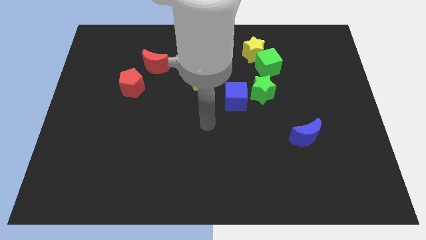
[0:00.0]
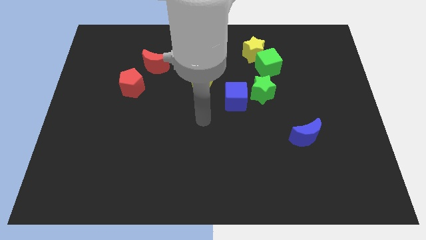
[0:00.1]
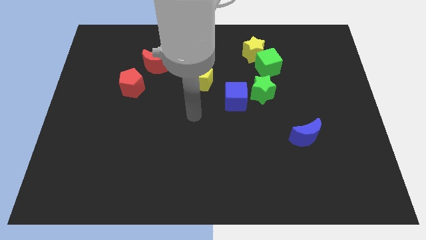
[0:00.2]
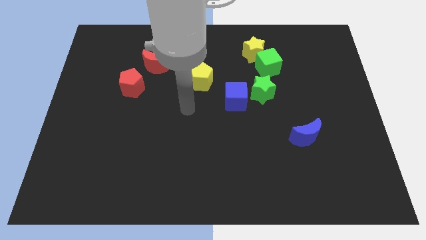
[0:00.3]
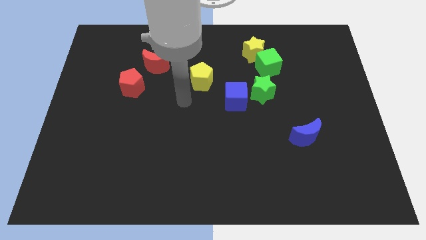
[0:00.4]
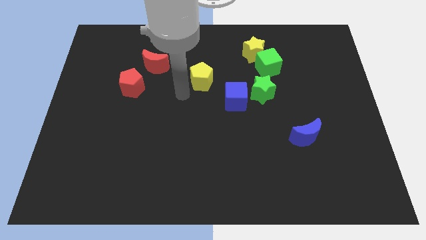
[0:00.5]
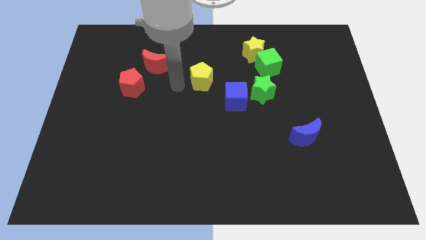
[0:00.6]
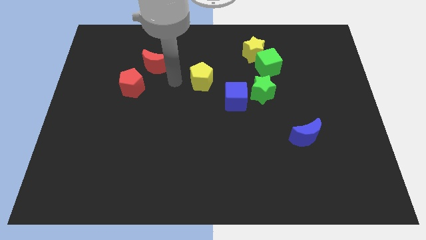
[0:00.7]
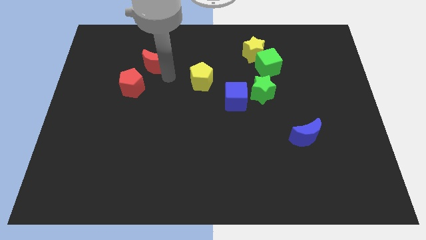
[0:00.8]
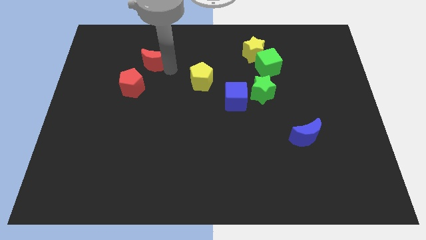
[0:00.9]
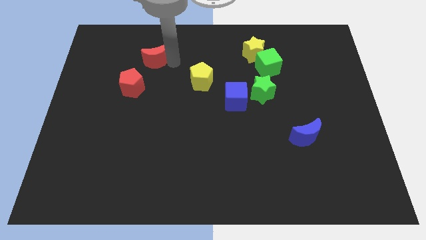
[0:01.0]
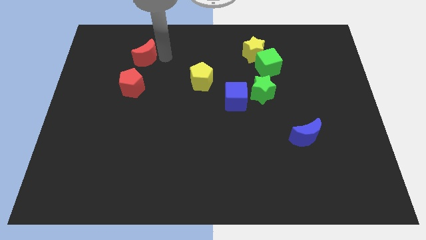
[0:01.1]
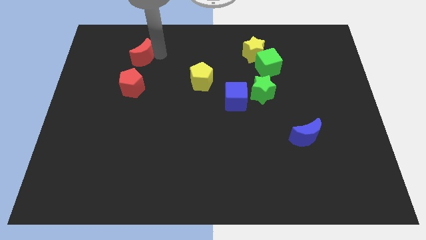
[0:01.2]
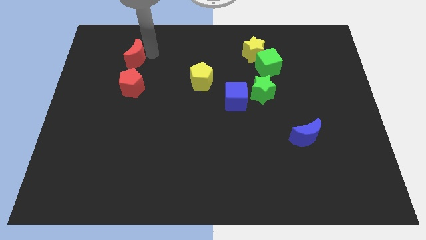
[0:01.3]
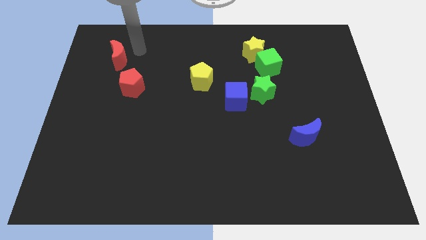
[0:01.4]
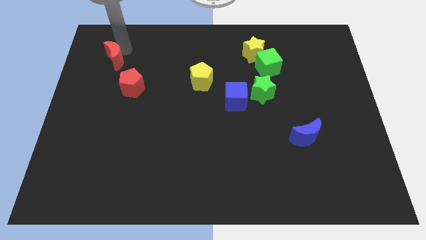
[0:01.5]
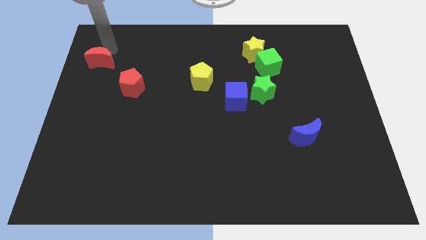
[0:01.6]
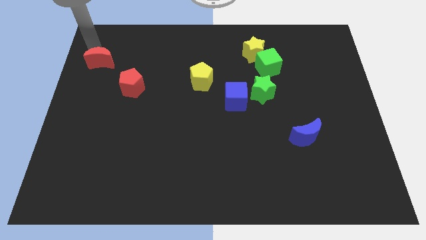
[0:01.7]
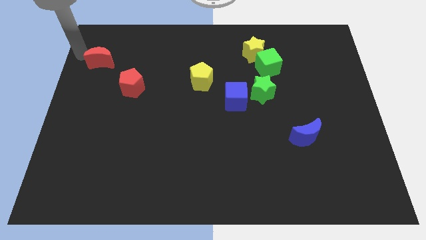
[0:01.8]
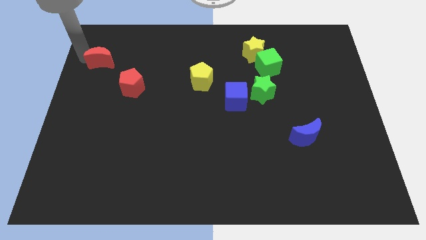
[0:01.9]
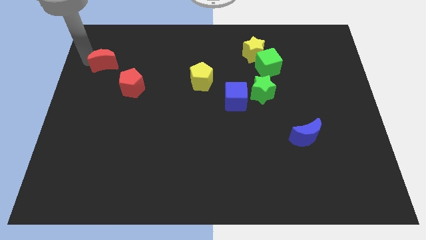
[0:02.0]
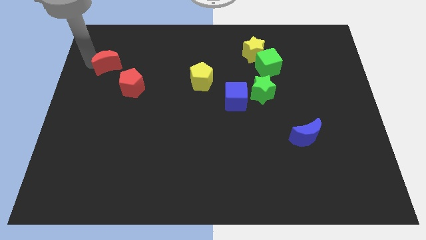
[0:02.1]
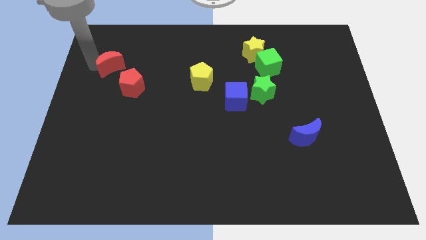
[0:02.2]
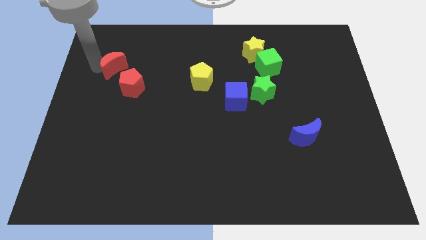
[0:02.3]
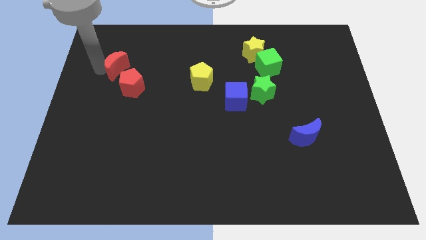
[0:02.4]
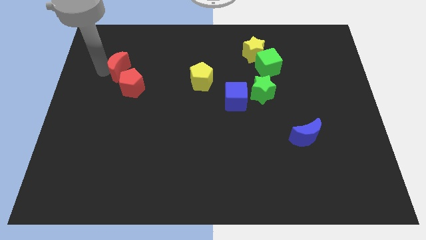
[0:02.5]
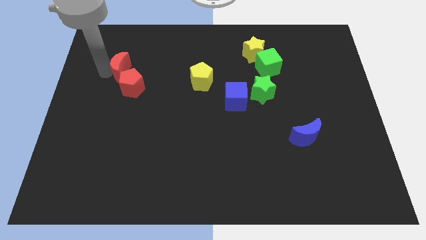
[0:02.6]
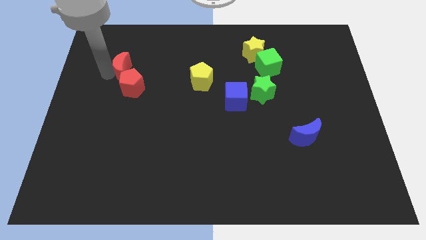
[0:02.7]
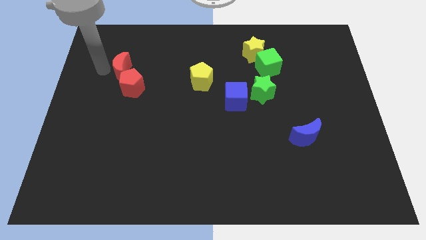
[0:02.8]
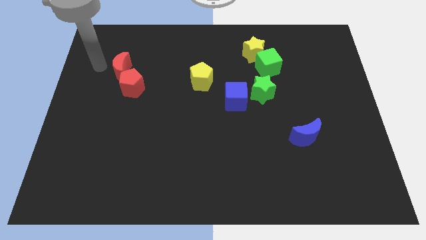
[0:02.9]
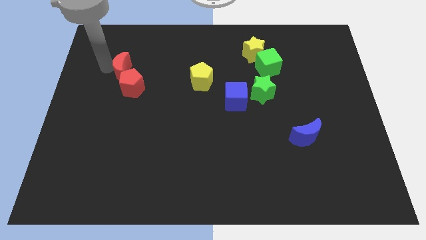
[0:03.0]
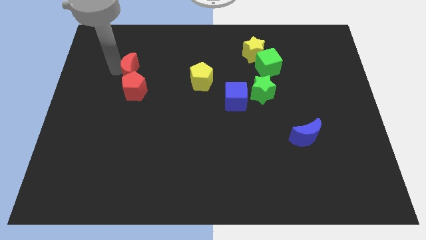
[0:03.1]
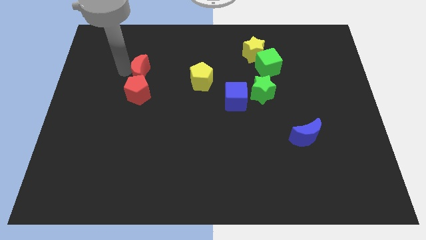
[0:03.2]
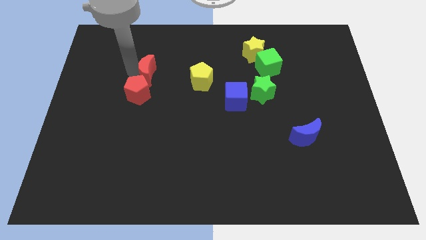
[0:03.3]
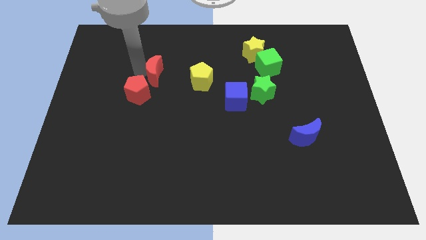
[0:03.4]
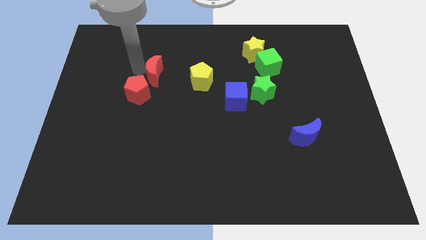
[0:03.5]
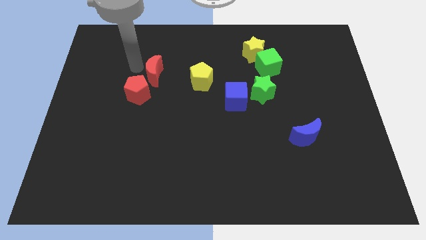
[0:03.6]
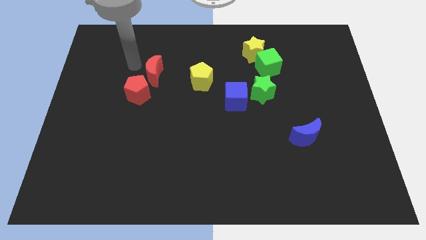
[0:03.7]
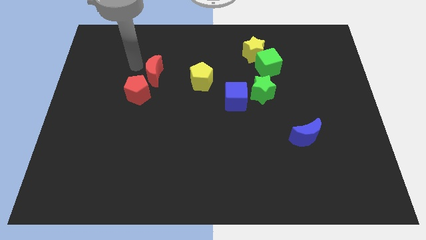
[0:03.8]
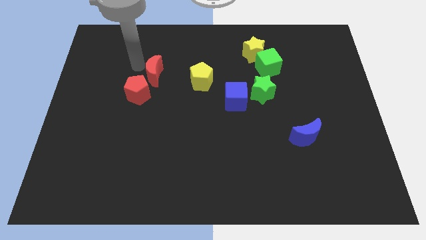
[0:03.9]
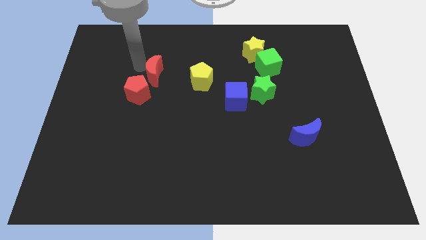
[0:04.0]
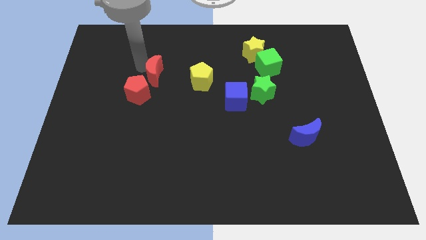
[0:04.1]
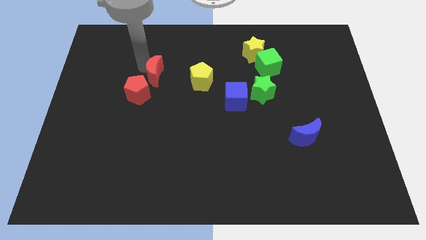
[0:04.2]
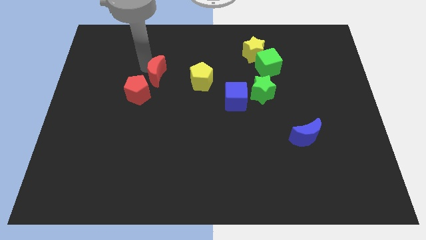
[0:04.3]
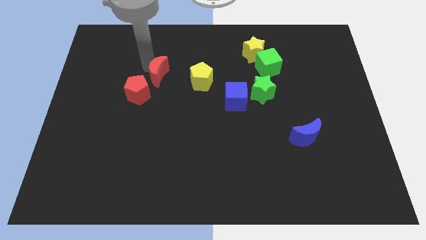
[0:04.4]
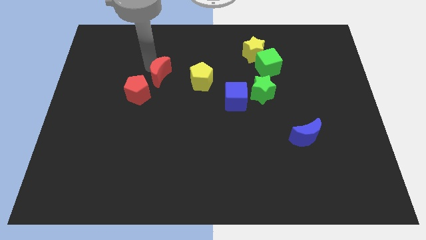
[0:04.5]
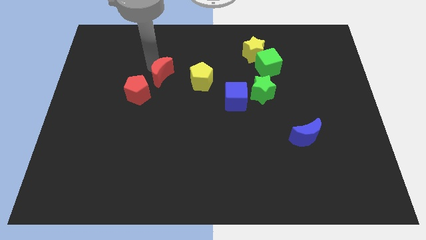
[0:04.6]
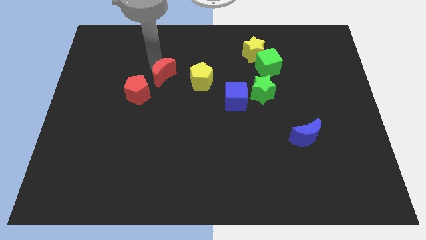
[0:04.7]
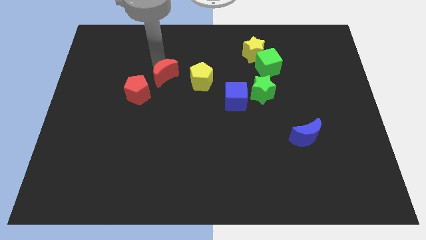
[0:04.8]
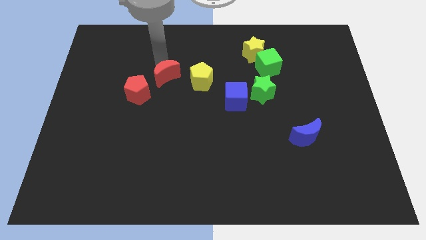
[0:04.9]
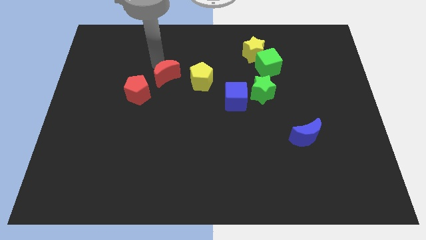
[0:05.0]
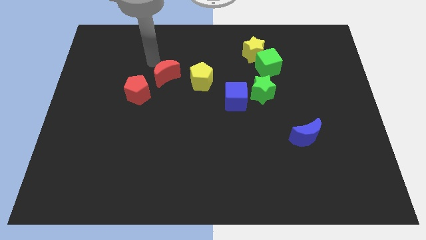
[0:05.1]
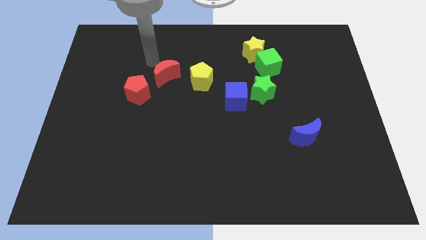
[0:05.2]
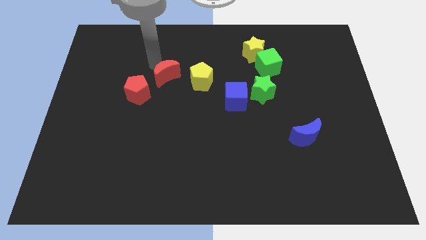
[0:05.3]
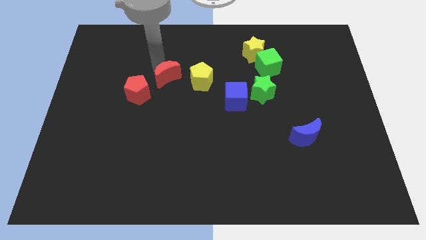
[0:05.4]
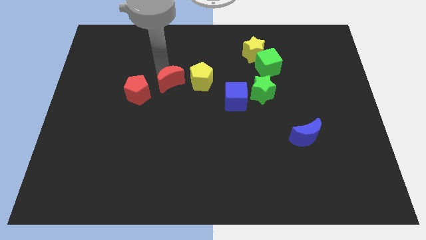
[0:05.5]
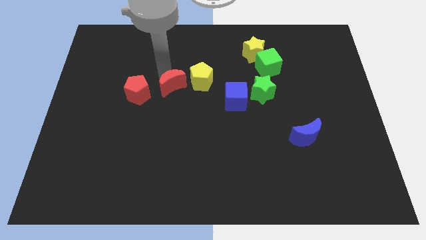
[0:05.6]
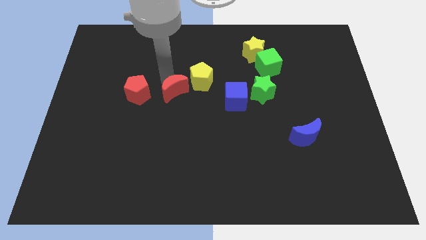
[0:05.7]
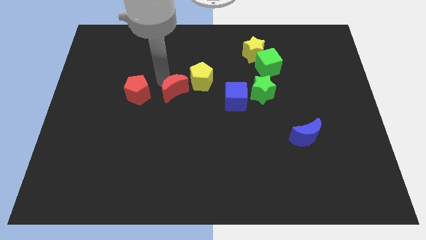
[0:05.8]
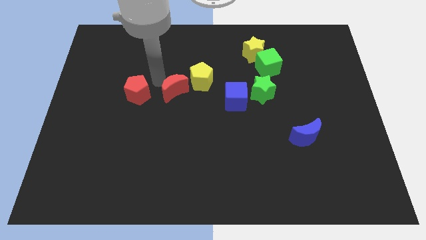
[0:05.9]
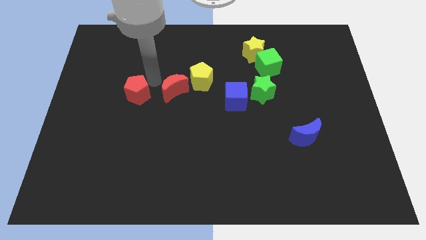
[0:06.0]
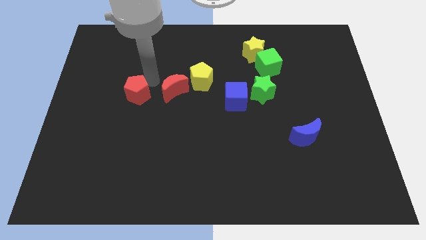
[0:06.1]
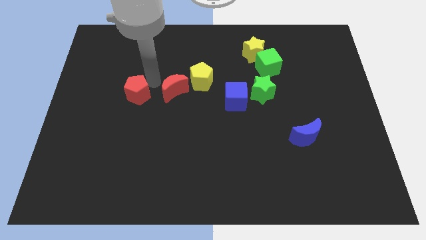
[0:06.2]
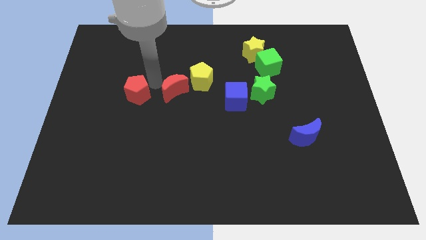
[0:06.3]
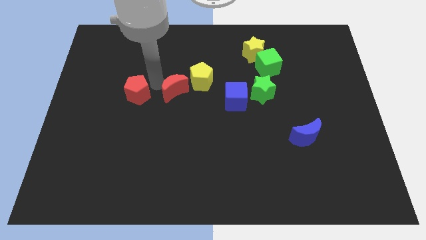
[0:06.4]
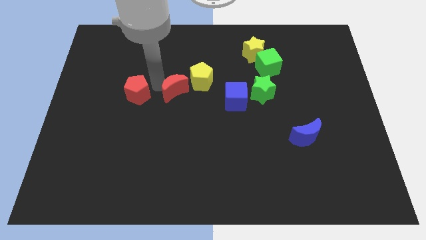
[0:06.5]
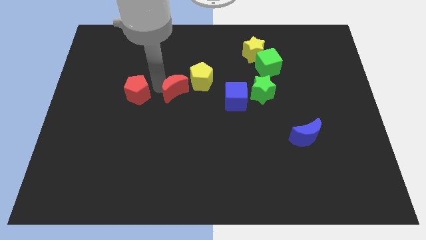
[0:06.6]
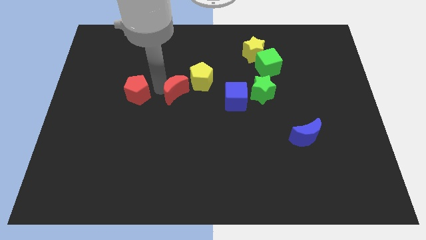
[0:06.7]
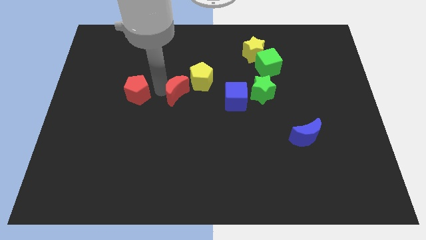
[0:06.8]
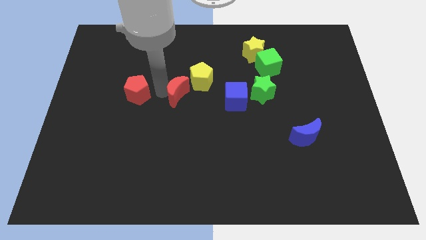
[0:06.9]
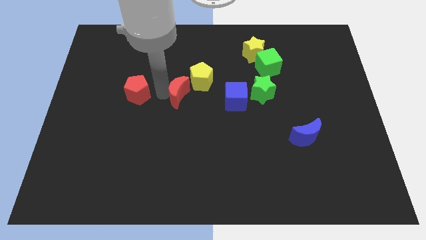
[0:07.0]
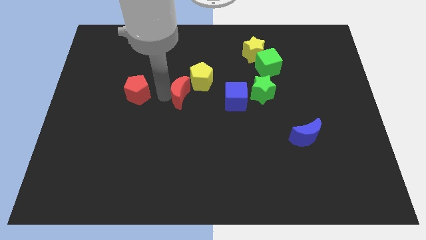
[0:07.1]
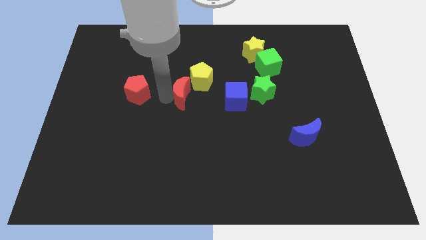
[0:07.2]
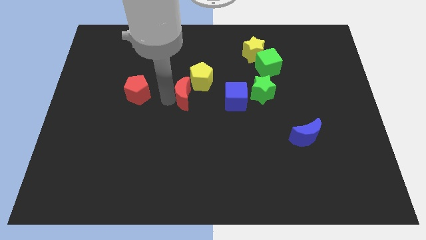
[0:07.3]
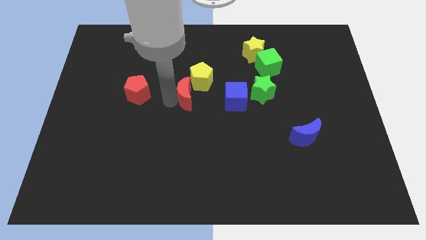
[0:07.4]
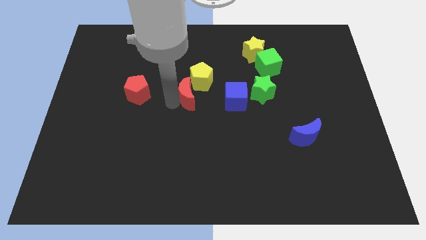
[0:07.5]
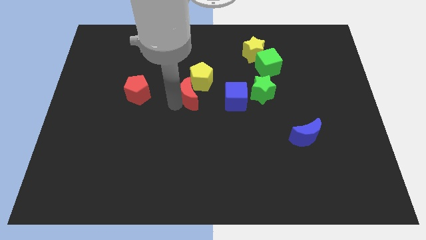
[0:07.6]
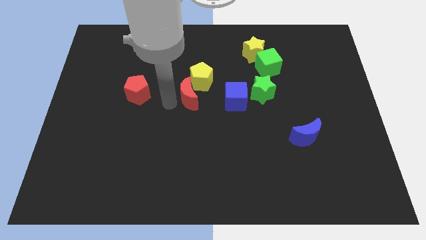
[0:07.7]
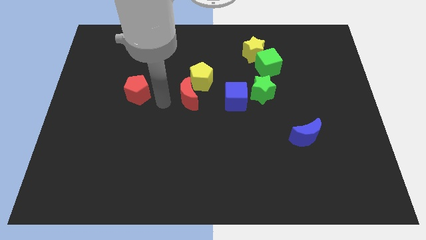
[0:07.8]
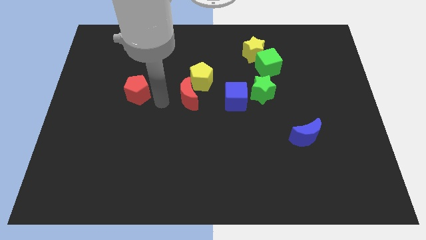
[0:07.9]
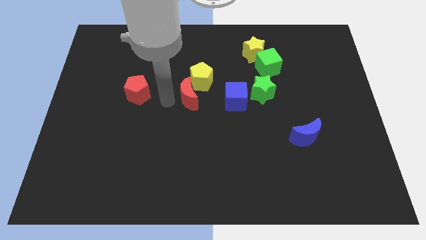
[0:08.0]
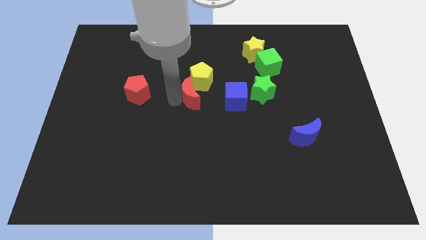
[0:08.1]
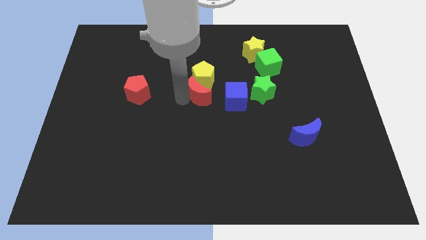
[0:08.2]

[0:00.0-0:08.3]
move the red moon left of the green star
